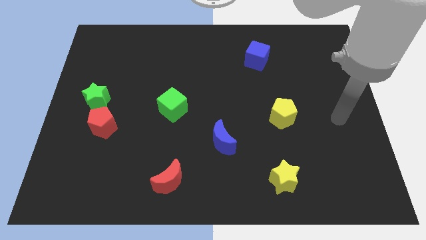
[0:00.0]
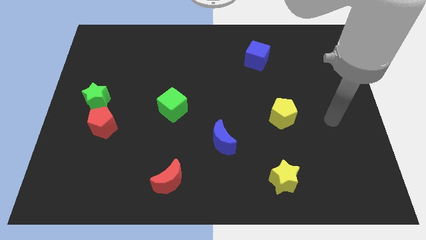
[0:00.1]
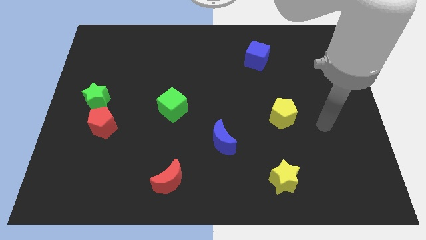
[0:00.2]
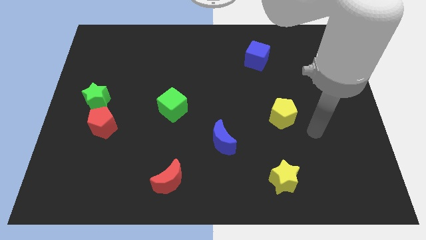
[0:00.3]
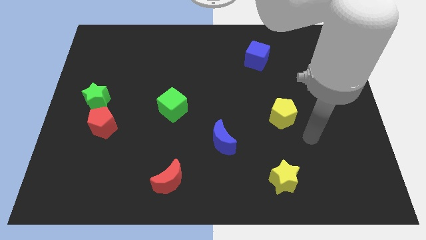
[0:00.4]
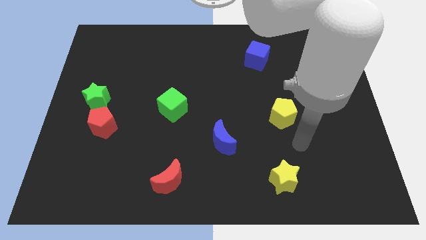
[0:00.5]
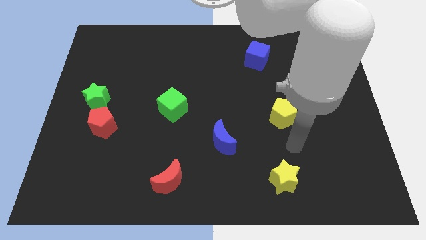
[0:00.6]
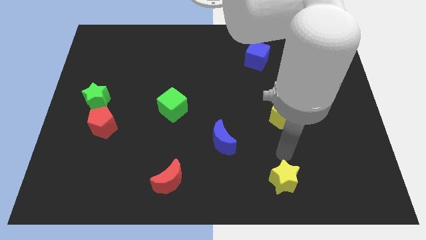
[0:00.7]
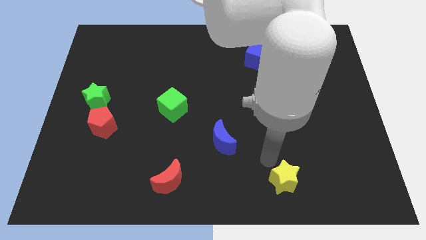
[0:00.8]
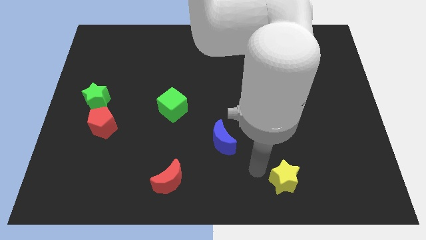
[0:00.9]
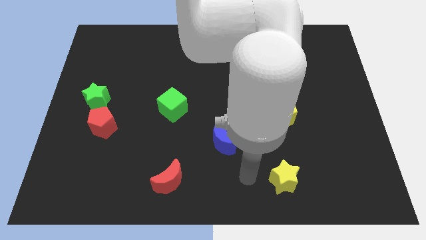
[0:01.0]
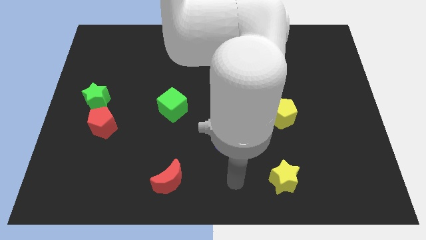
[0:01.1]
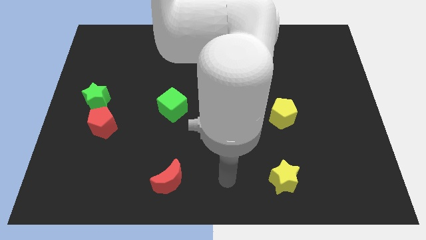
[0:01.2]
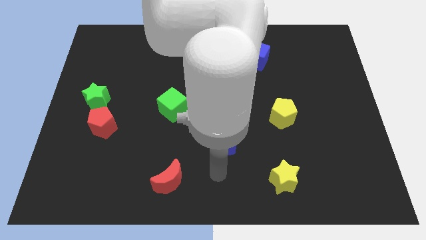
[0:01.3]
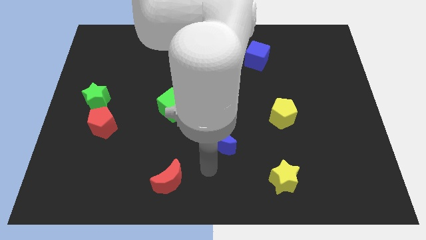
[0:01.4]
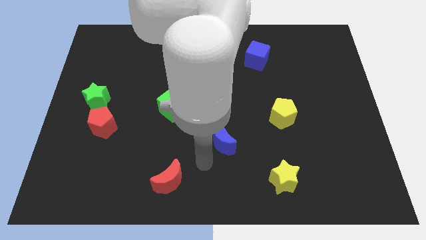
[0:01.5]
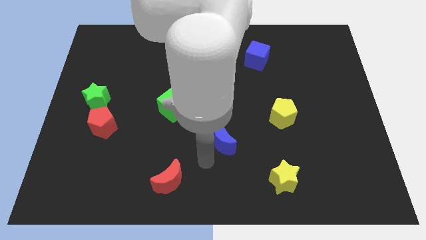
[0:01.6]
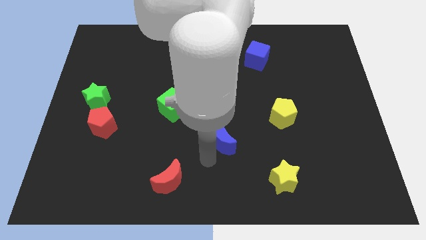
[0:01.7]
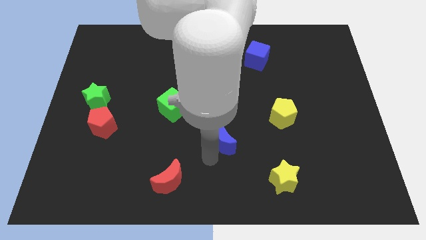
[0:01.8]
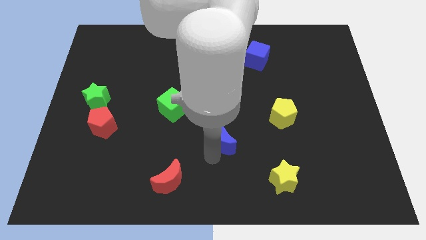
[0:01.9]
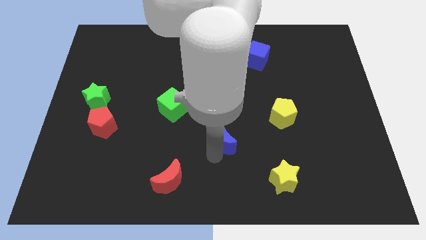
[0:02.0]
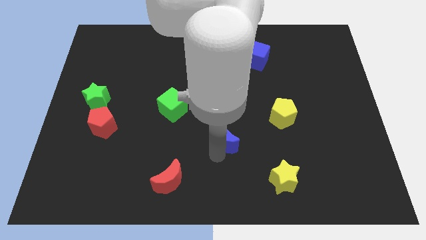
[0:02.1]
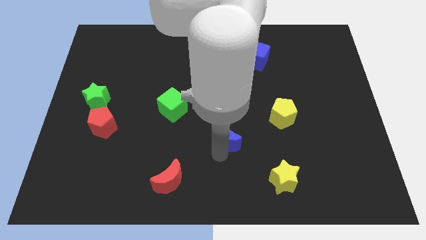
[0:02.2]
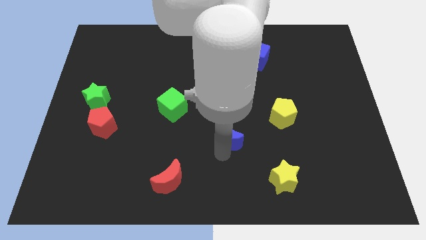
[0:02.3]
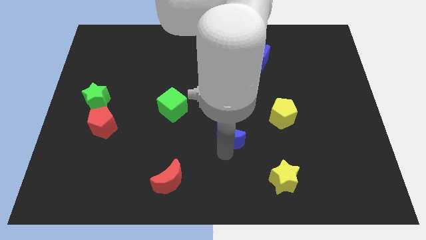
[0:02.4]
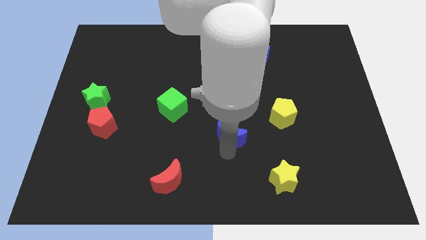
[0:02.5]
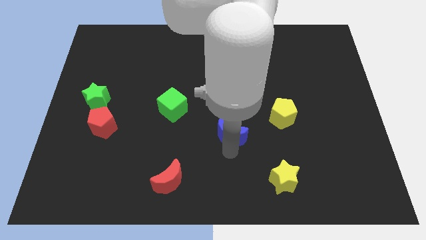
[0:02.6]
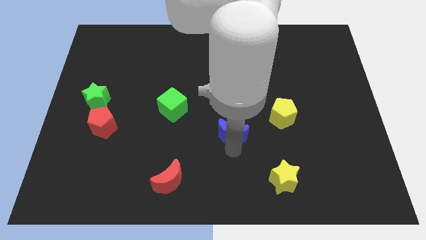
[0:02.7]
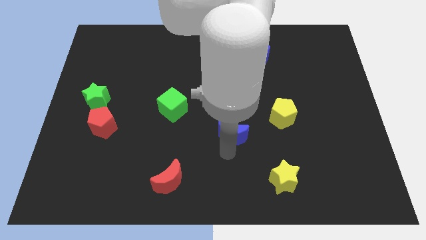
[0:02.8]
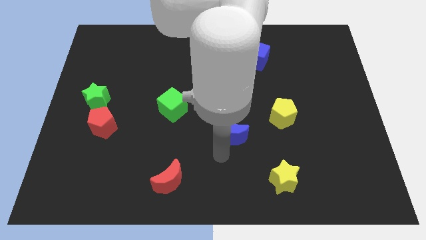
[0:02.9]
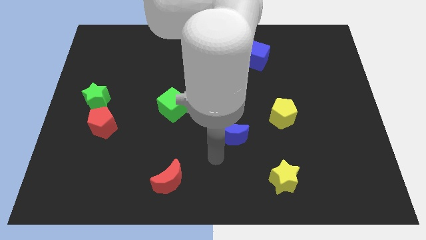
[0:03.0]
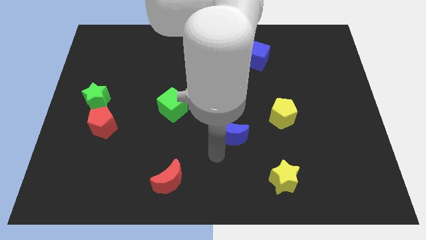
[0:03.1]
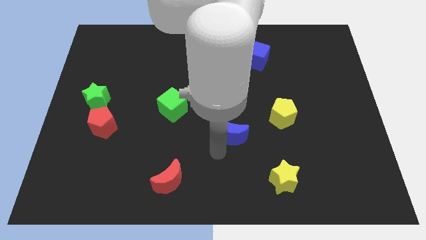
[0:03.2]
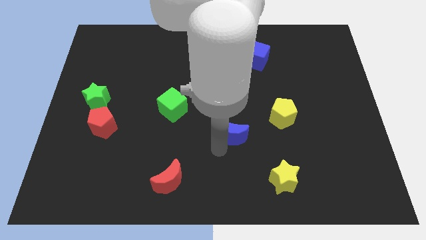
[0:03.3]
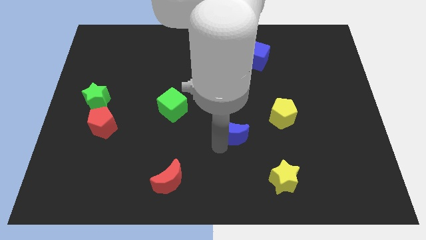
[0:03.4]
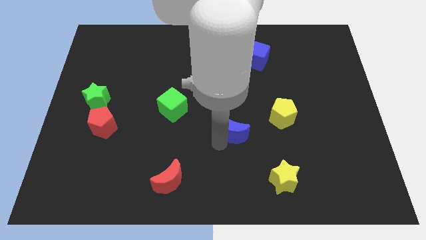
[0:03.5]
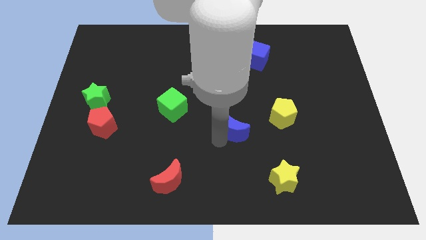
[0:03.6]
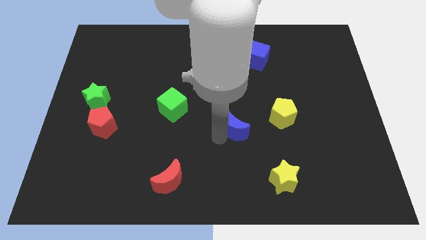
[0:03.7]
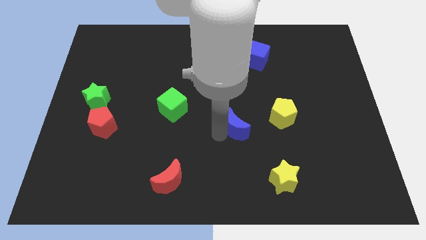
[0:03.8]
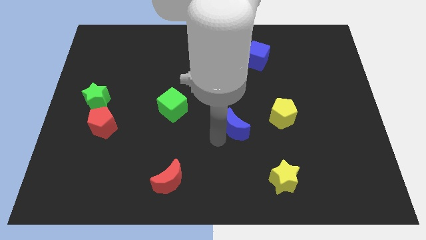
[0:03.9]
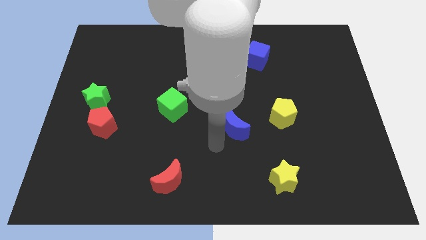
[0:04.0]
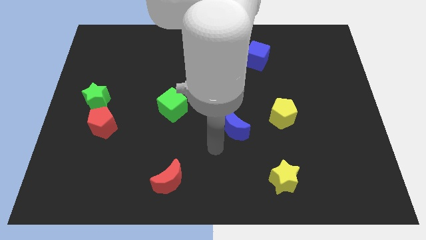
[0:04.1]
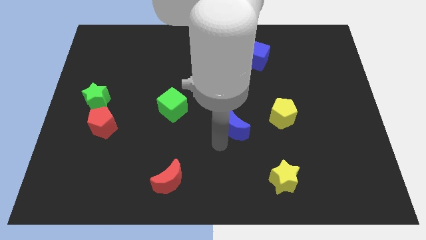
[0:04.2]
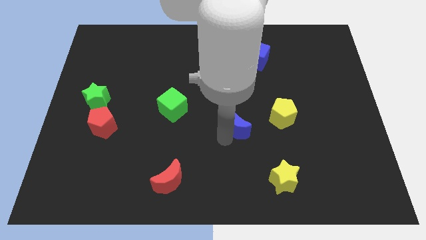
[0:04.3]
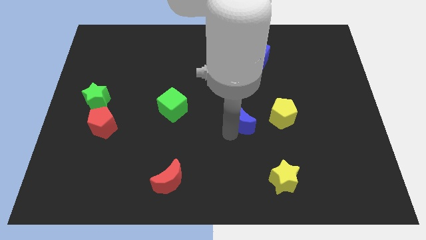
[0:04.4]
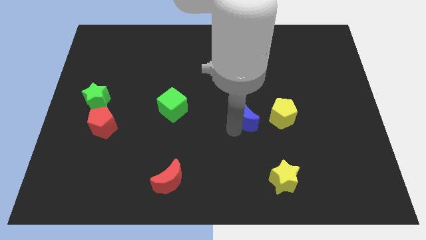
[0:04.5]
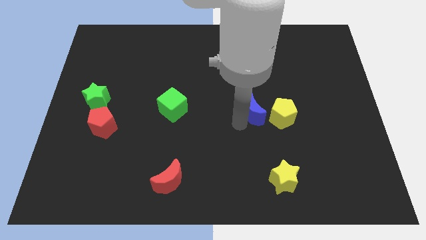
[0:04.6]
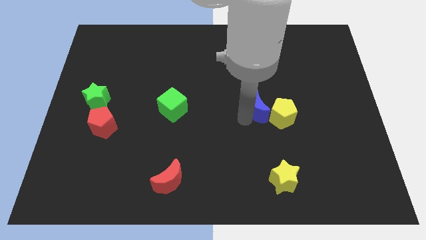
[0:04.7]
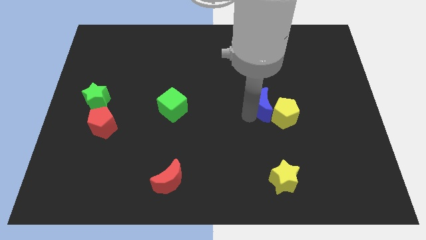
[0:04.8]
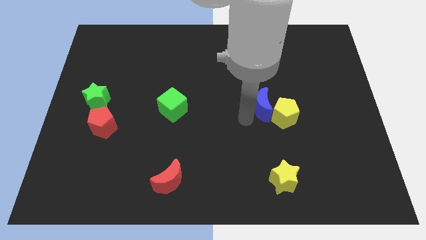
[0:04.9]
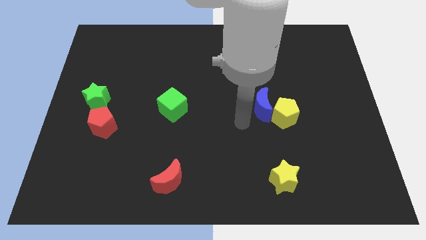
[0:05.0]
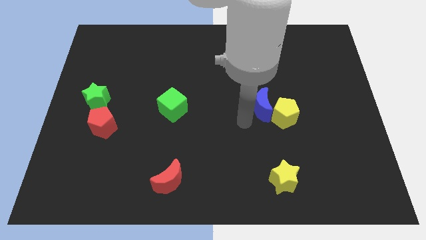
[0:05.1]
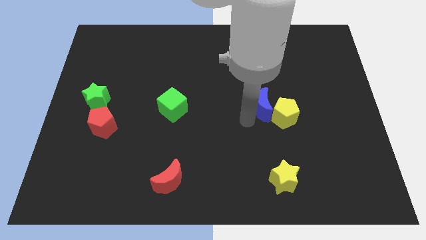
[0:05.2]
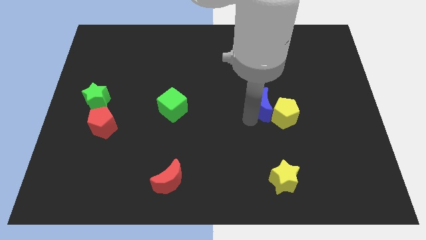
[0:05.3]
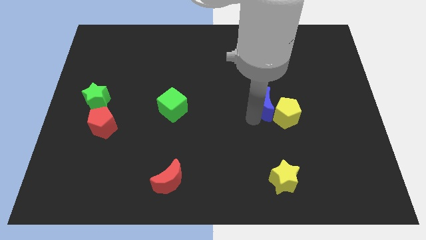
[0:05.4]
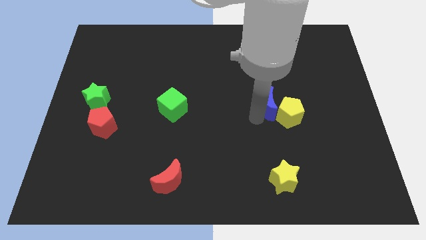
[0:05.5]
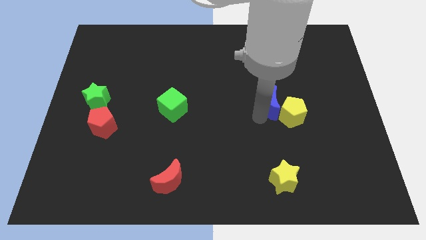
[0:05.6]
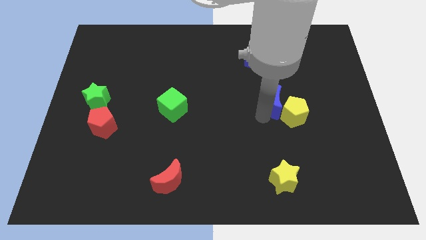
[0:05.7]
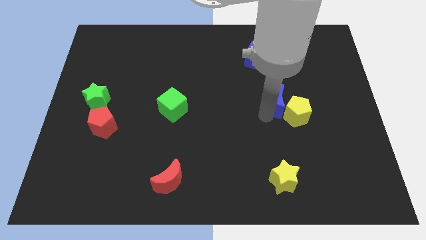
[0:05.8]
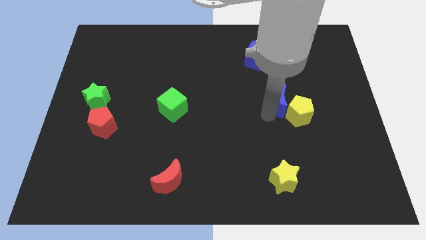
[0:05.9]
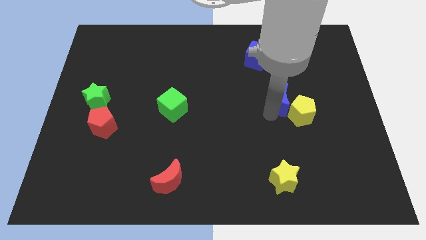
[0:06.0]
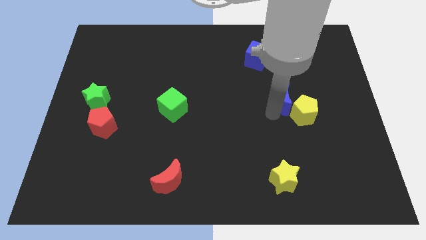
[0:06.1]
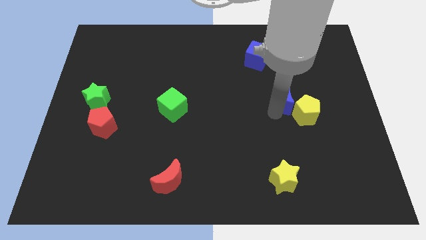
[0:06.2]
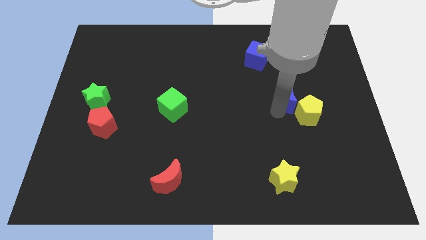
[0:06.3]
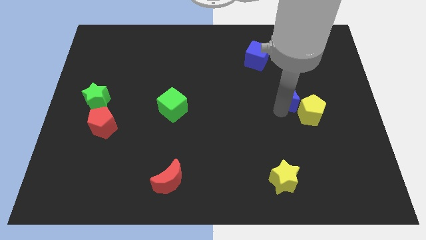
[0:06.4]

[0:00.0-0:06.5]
push the blue moon upwards and right

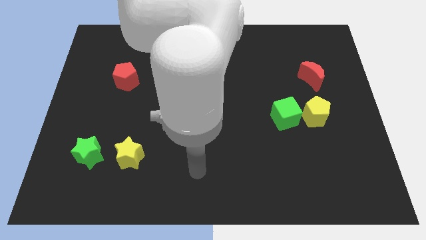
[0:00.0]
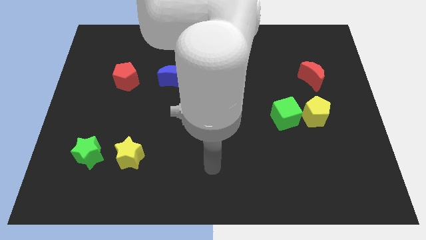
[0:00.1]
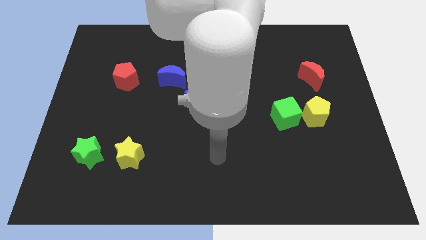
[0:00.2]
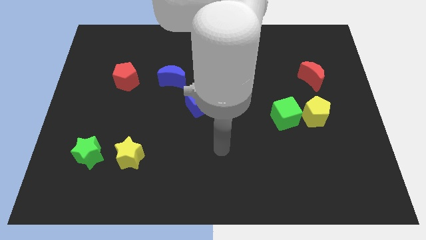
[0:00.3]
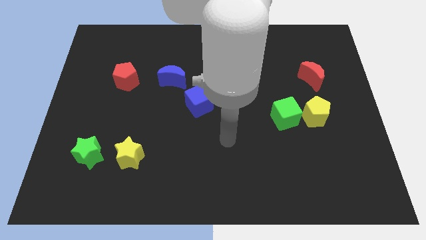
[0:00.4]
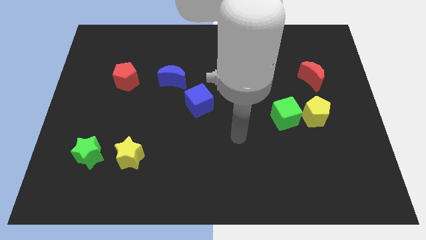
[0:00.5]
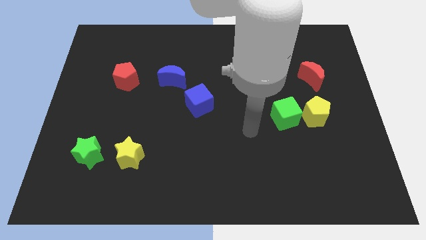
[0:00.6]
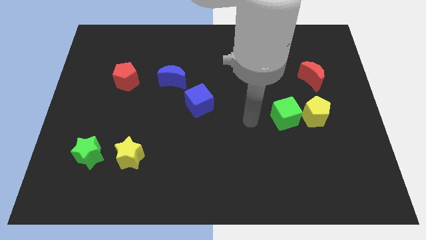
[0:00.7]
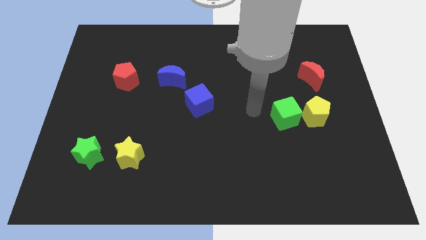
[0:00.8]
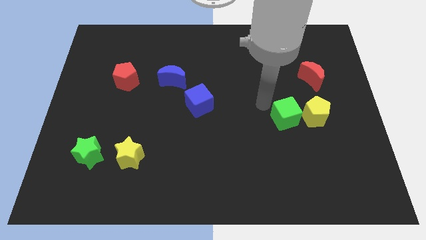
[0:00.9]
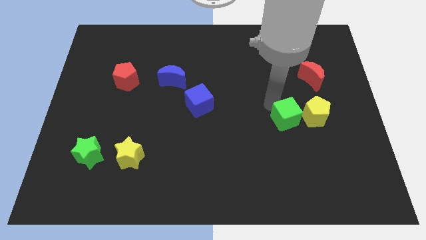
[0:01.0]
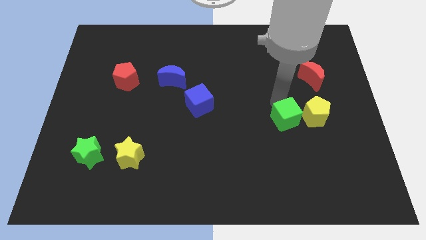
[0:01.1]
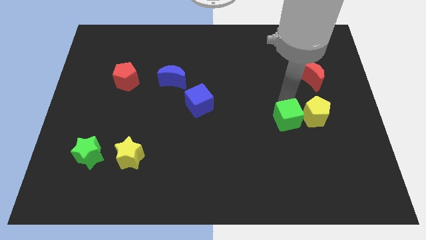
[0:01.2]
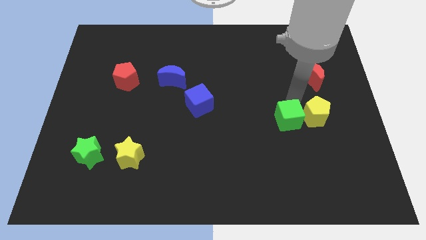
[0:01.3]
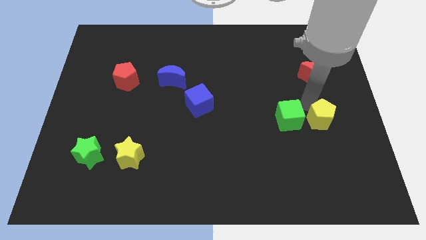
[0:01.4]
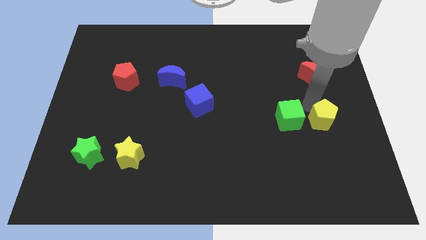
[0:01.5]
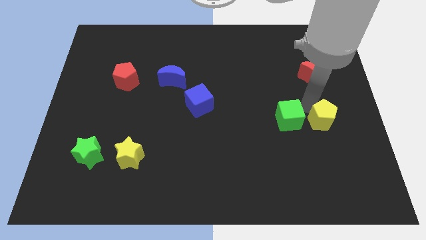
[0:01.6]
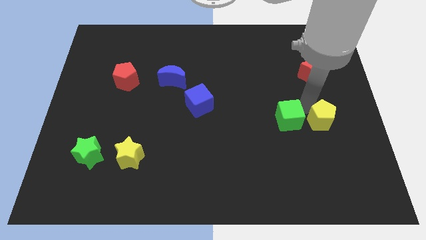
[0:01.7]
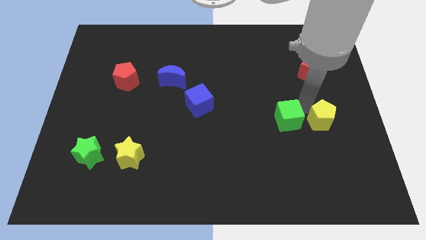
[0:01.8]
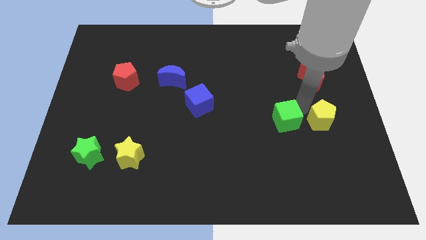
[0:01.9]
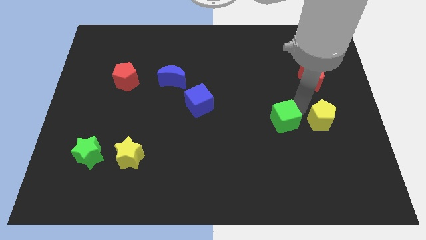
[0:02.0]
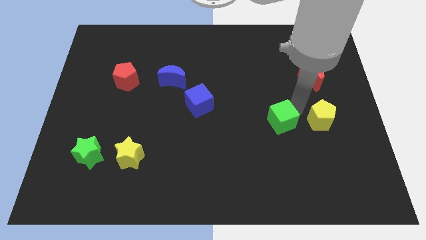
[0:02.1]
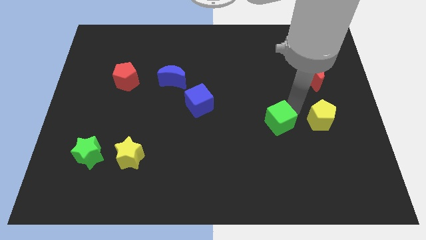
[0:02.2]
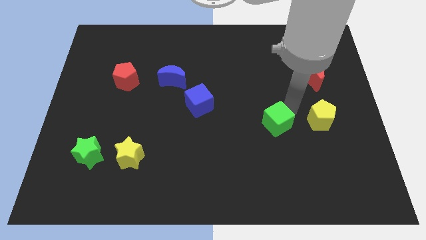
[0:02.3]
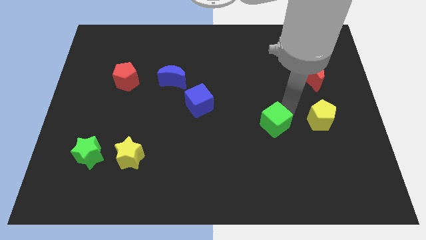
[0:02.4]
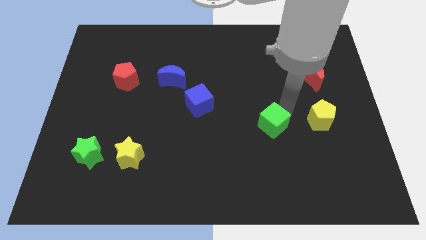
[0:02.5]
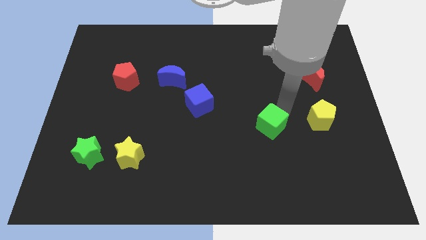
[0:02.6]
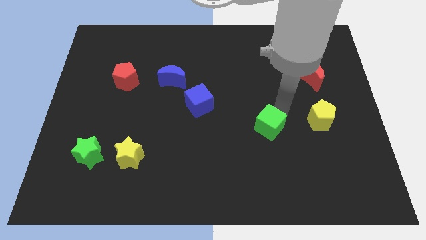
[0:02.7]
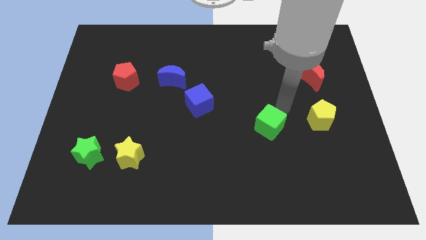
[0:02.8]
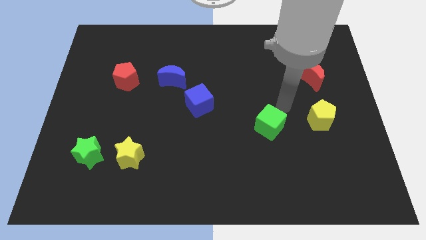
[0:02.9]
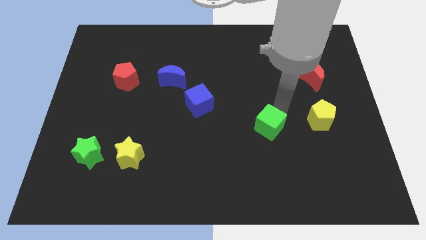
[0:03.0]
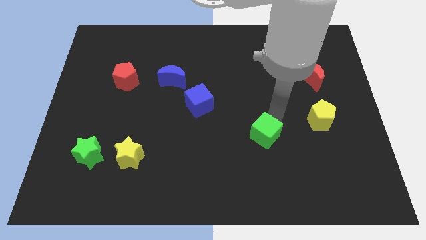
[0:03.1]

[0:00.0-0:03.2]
push the green cube downwards and then to the left a bit
